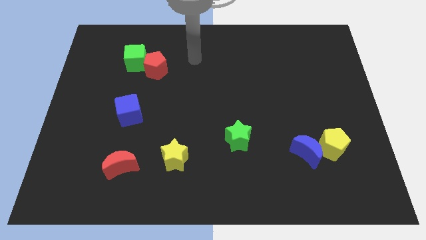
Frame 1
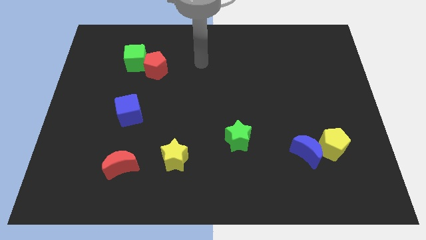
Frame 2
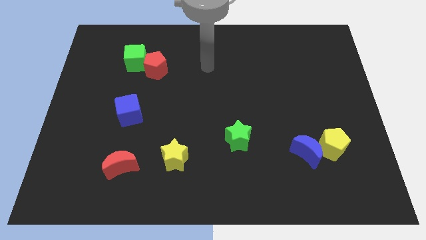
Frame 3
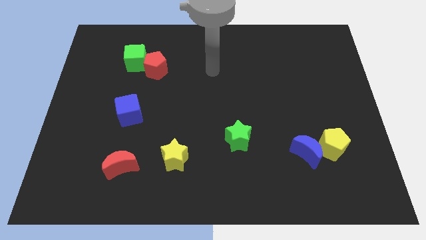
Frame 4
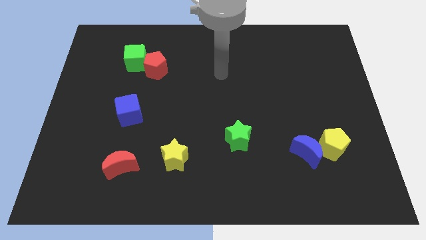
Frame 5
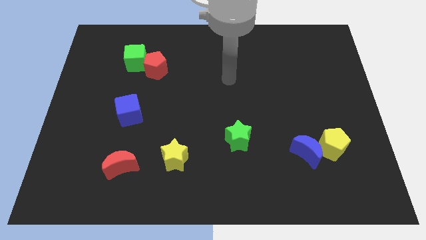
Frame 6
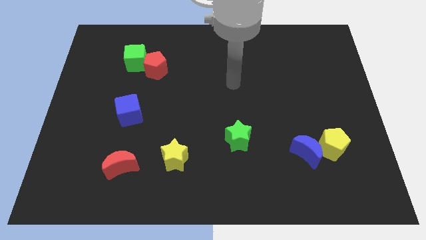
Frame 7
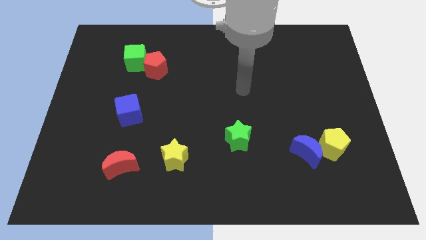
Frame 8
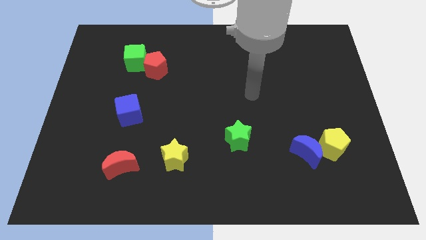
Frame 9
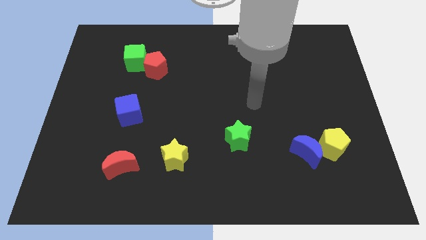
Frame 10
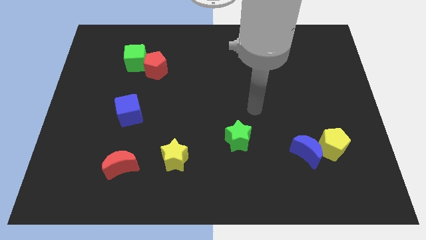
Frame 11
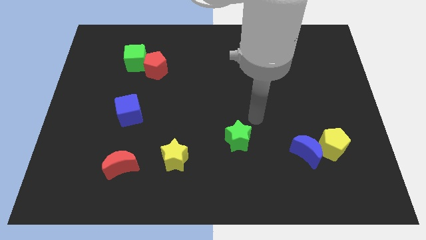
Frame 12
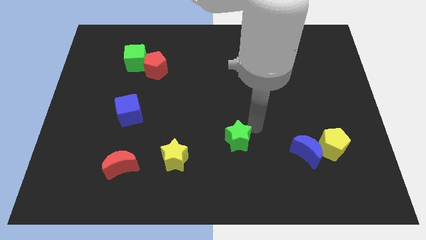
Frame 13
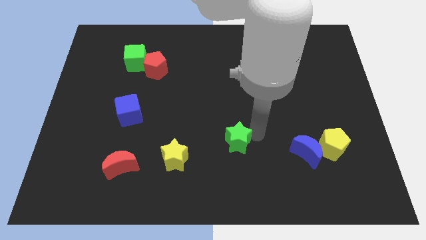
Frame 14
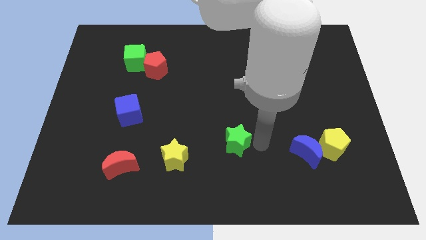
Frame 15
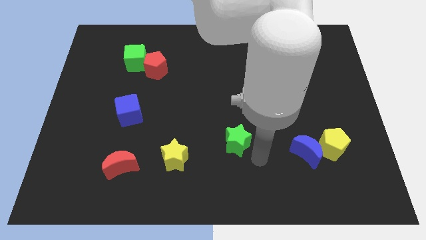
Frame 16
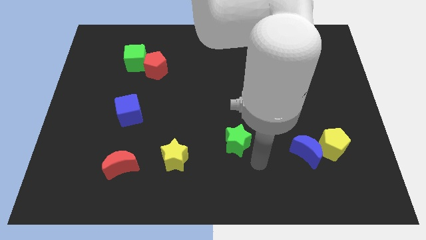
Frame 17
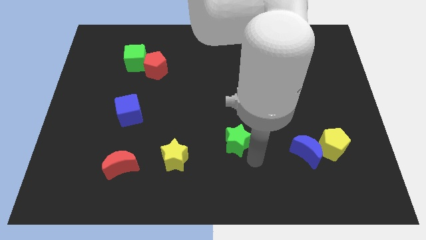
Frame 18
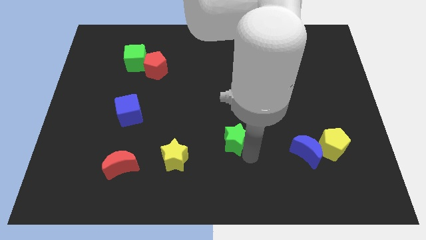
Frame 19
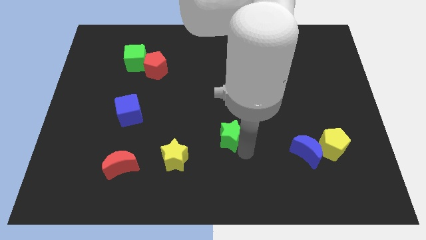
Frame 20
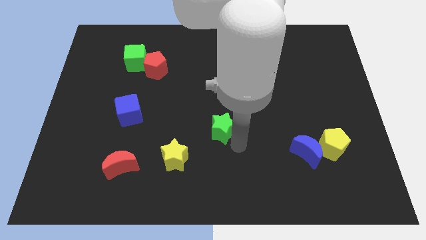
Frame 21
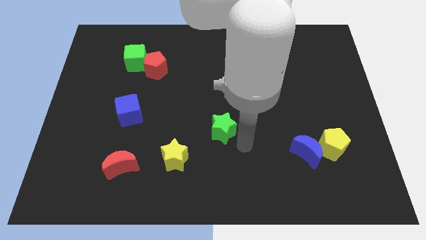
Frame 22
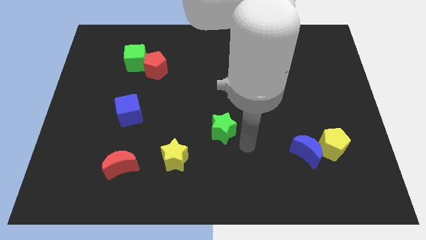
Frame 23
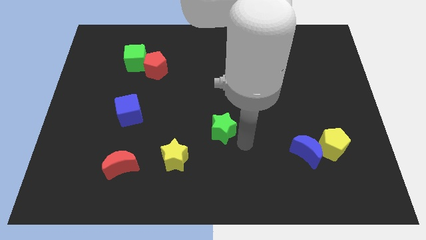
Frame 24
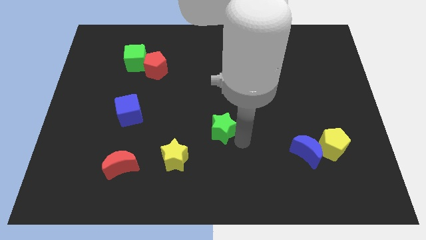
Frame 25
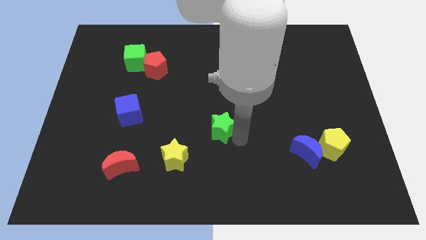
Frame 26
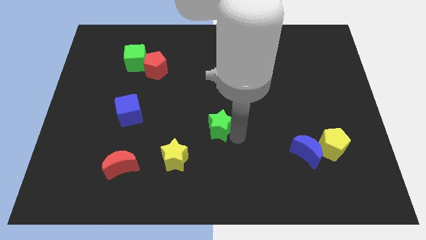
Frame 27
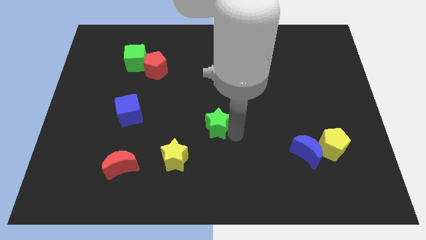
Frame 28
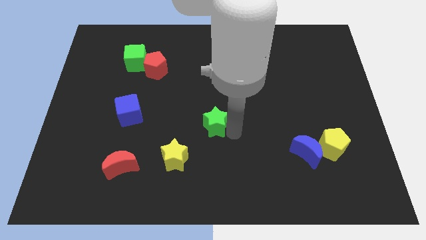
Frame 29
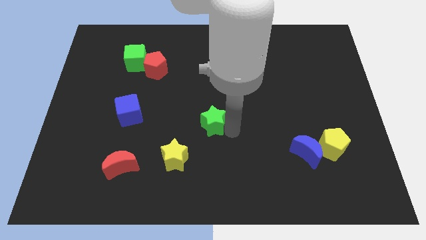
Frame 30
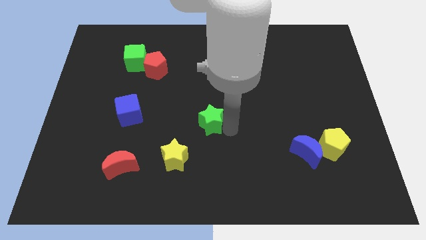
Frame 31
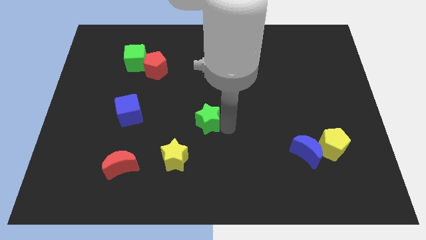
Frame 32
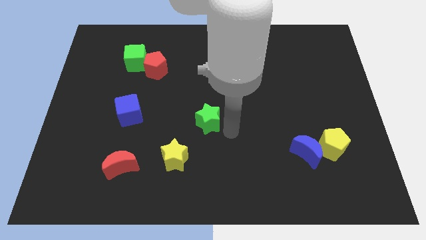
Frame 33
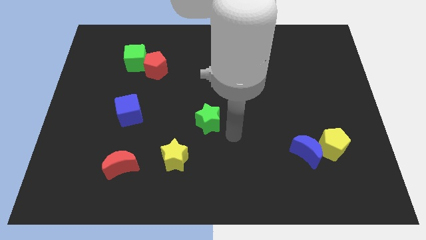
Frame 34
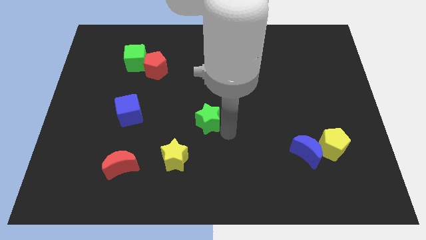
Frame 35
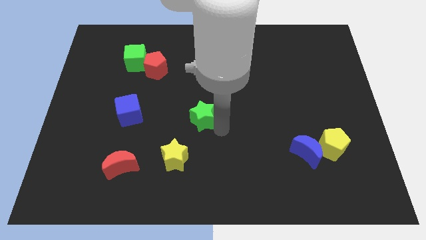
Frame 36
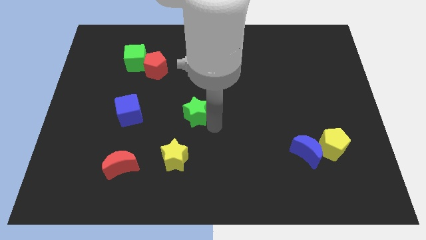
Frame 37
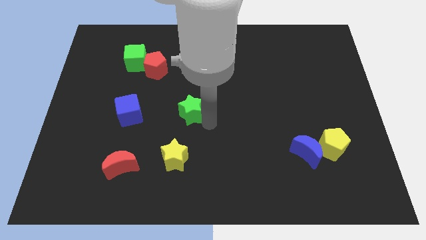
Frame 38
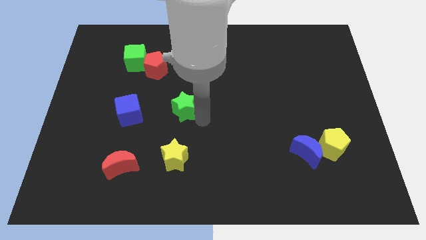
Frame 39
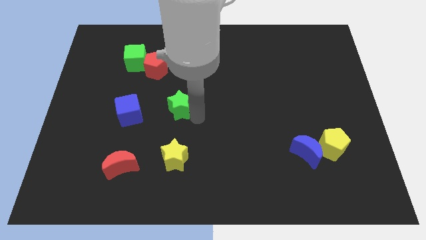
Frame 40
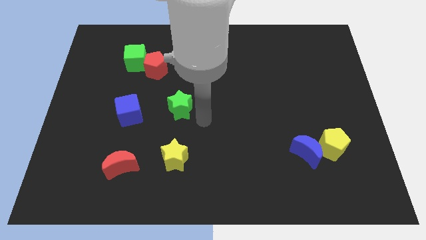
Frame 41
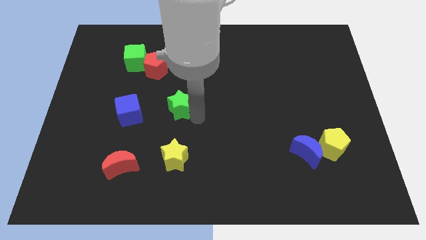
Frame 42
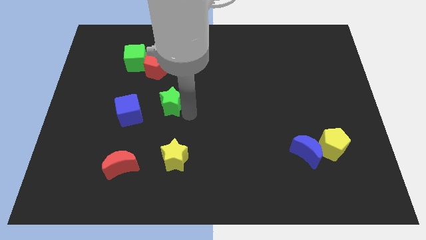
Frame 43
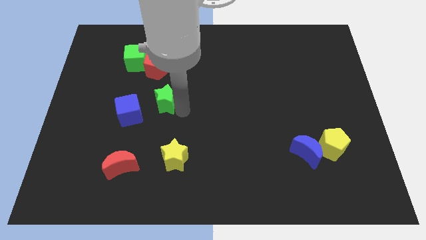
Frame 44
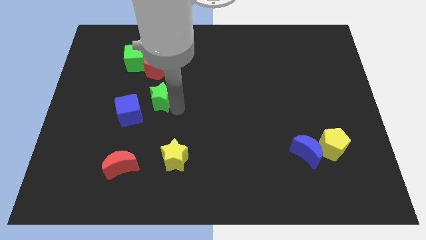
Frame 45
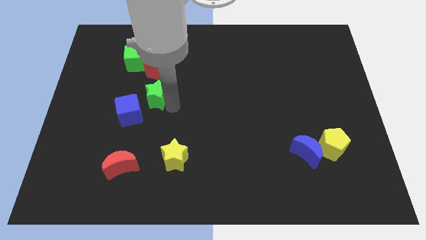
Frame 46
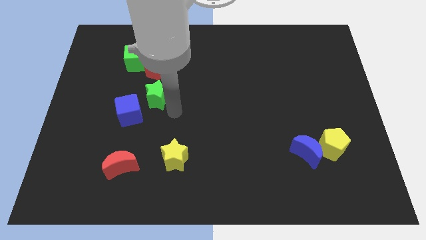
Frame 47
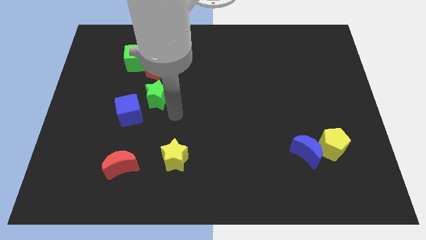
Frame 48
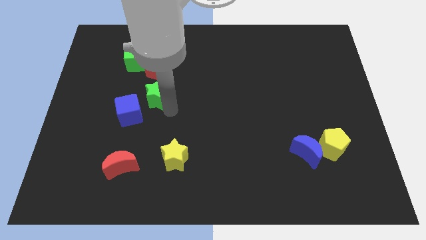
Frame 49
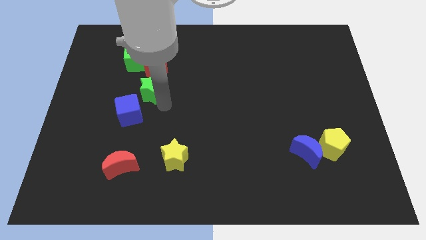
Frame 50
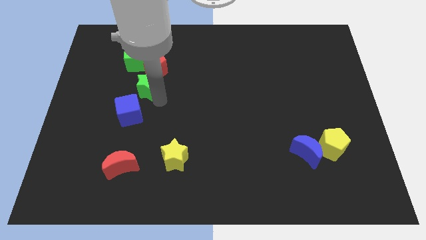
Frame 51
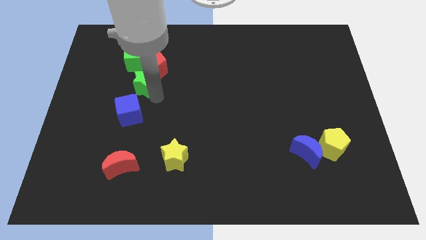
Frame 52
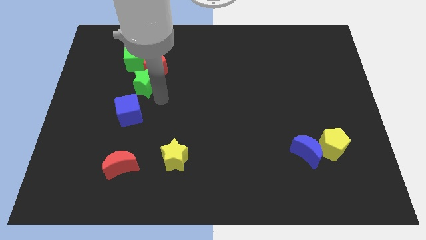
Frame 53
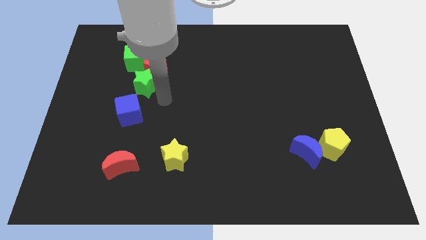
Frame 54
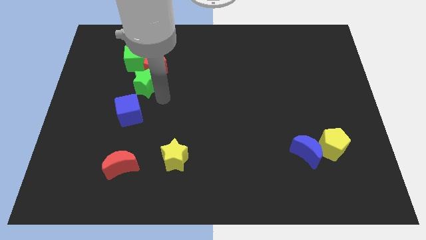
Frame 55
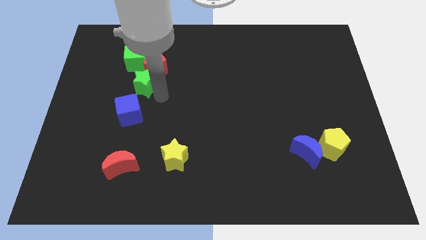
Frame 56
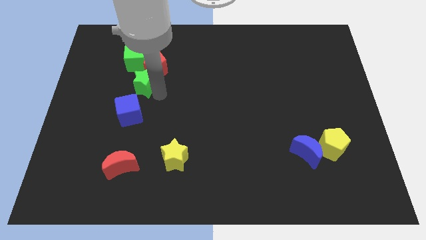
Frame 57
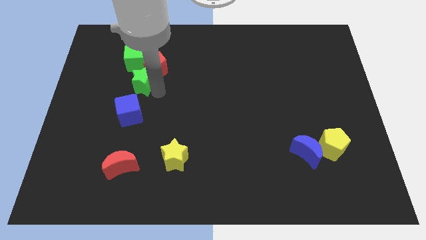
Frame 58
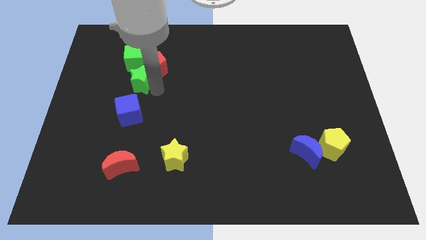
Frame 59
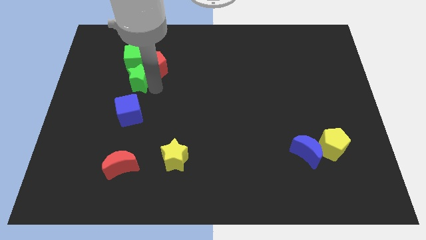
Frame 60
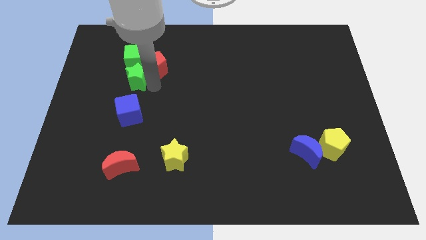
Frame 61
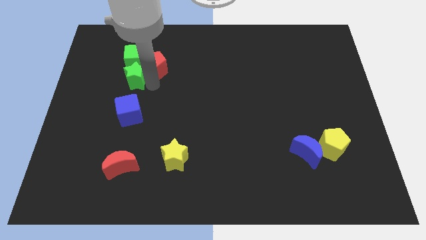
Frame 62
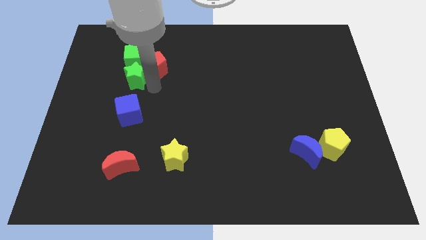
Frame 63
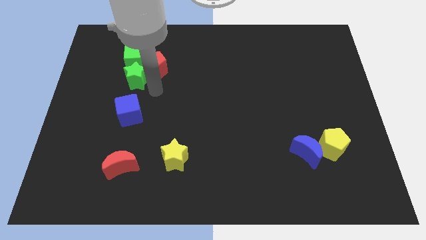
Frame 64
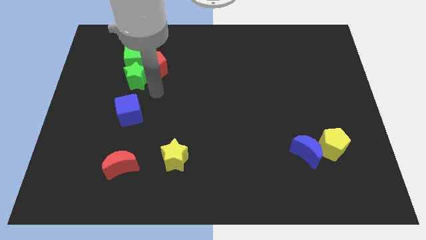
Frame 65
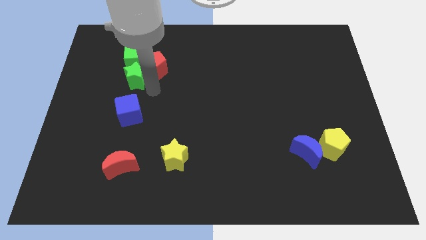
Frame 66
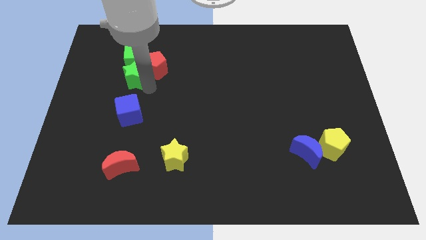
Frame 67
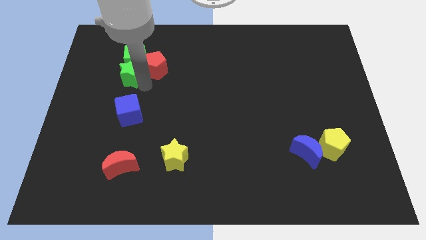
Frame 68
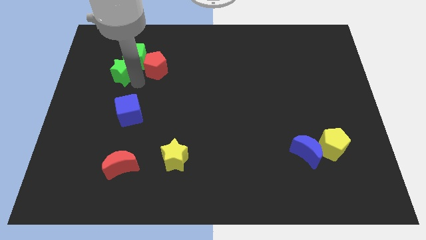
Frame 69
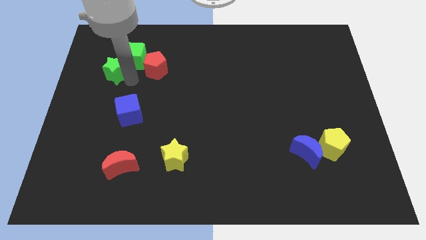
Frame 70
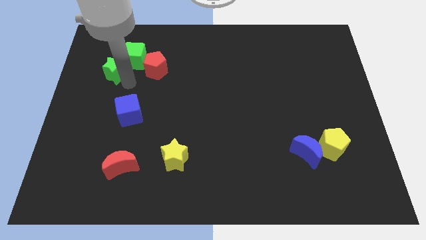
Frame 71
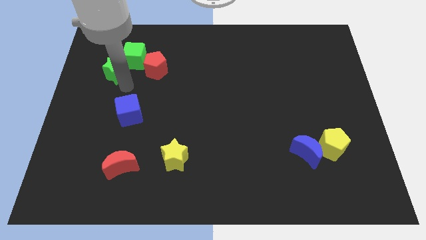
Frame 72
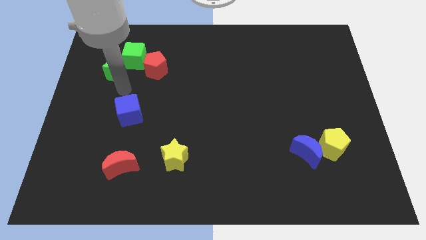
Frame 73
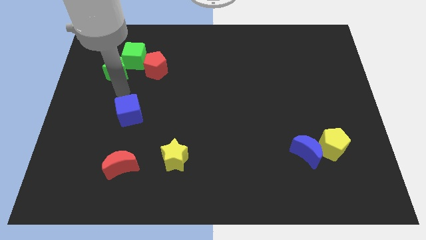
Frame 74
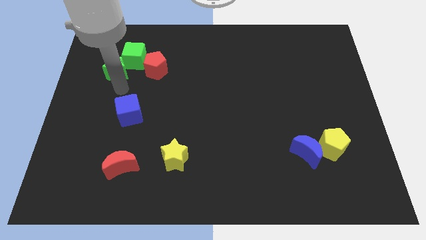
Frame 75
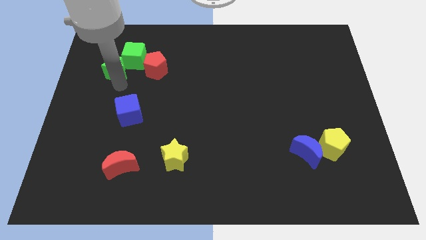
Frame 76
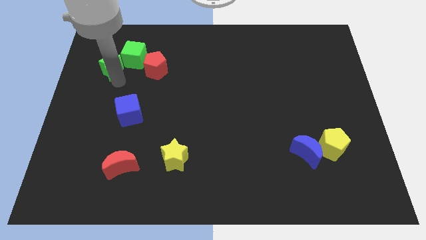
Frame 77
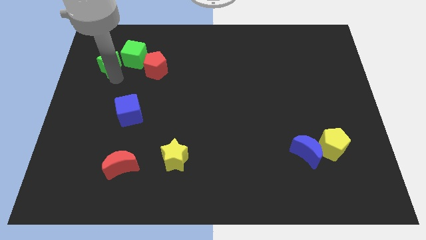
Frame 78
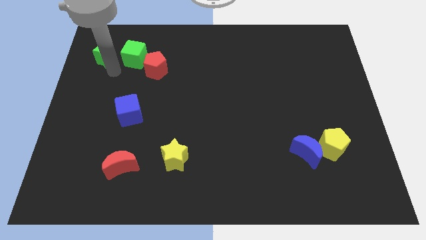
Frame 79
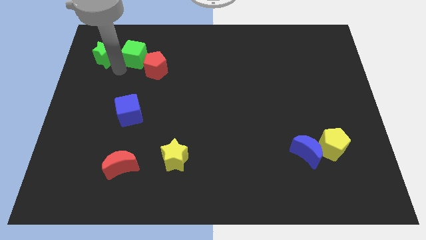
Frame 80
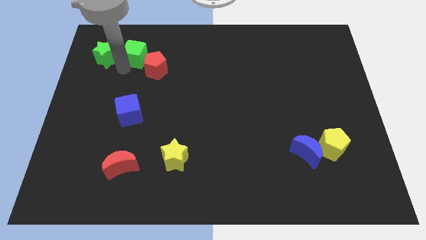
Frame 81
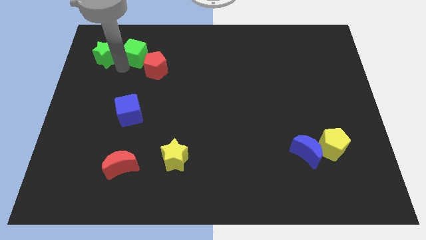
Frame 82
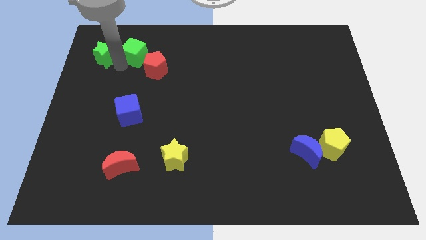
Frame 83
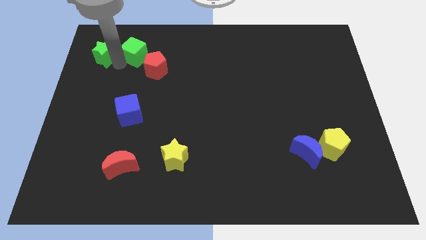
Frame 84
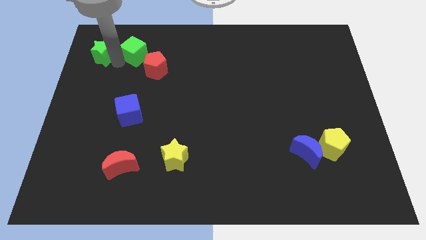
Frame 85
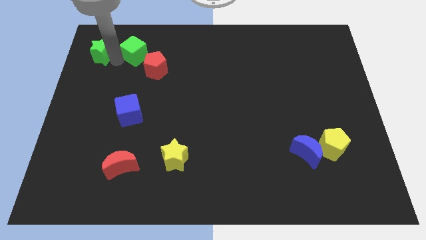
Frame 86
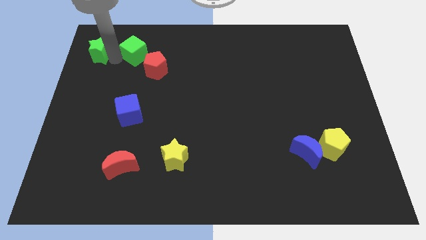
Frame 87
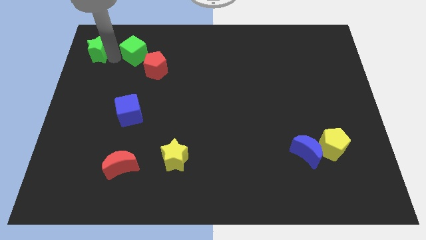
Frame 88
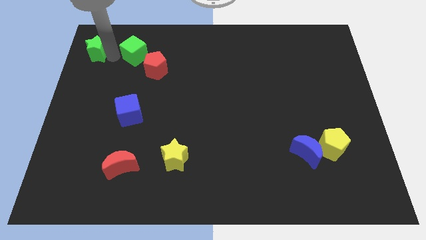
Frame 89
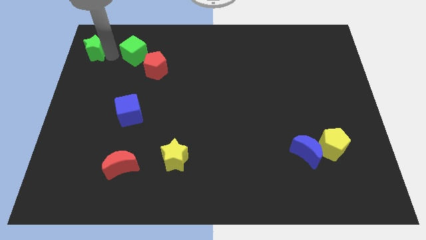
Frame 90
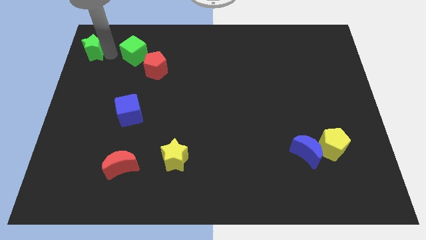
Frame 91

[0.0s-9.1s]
slide the green star to the top left corner
